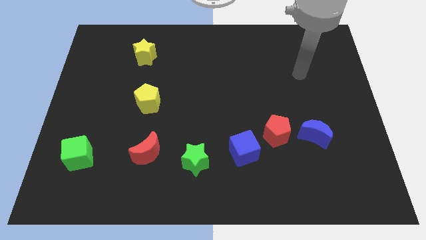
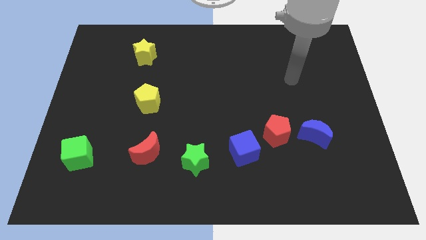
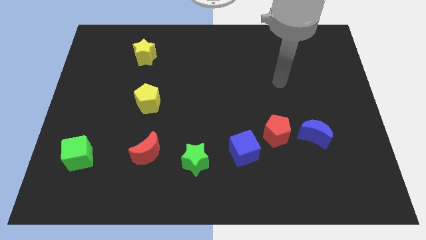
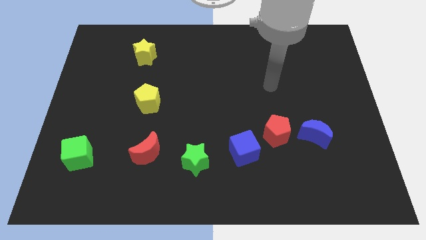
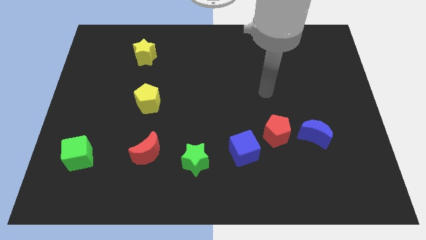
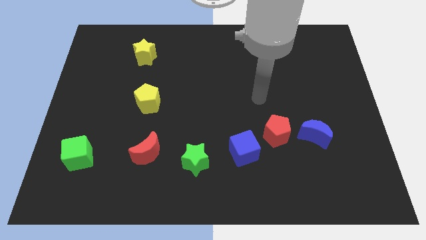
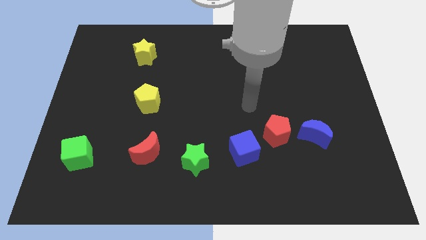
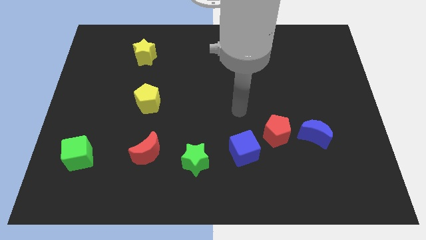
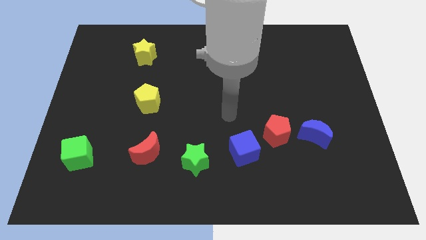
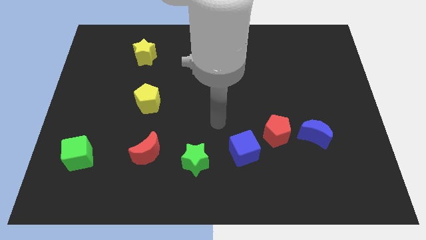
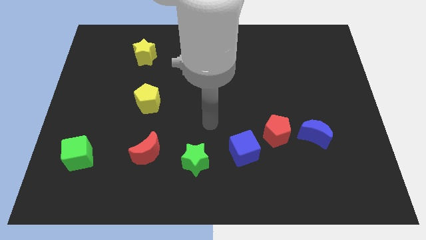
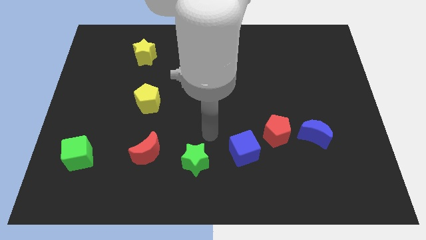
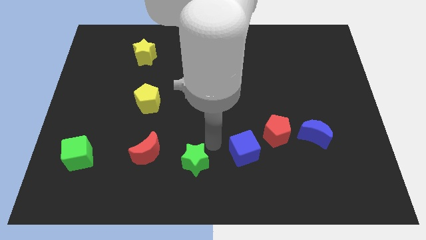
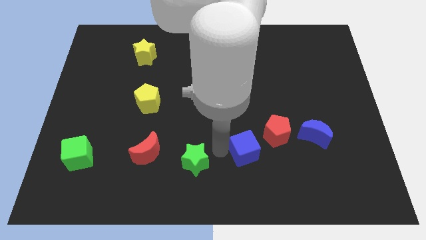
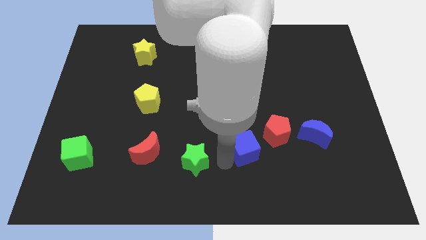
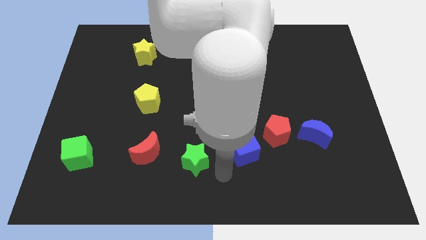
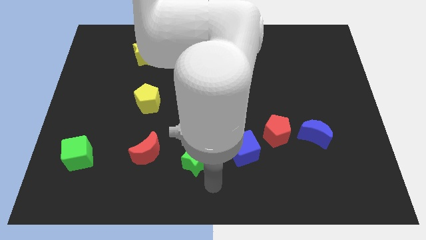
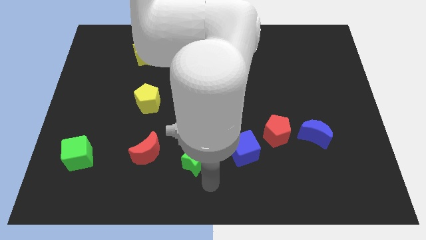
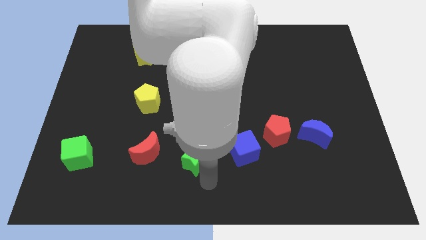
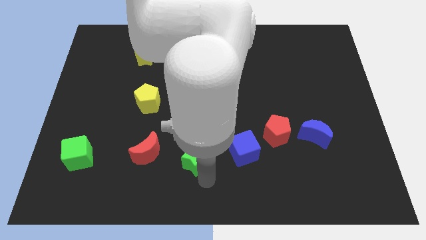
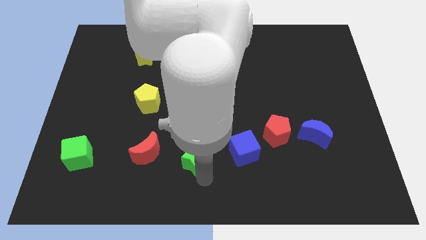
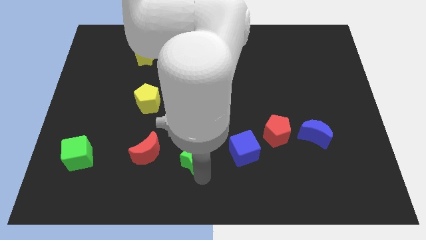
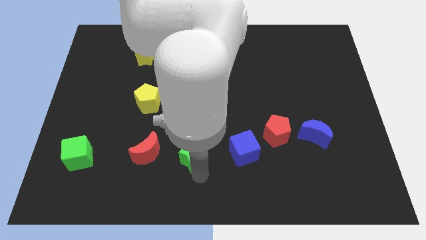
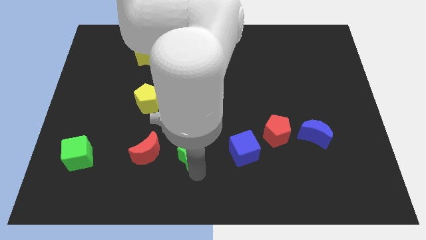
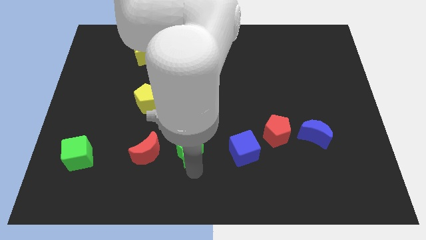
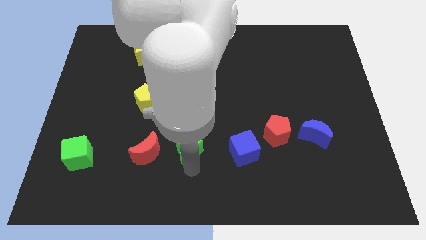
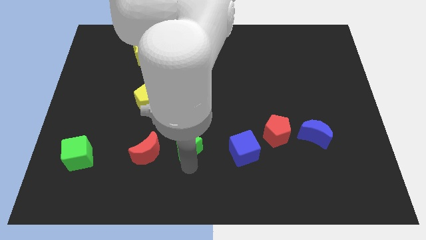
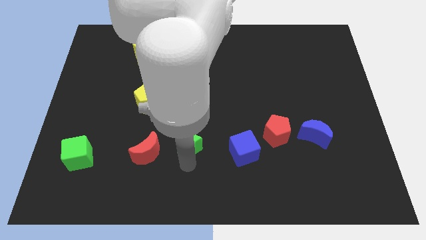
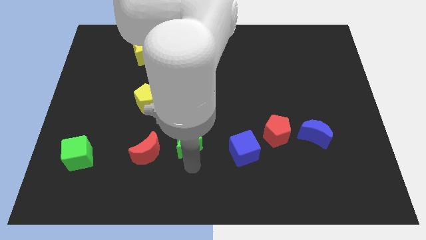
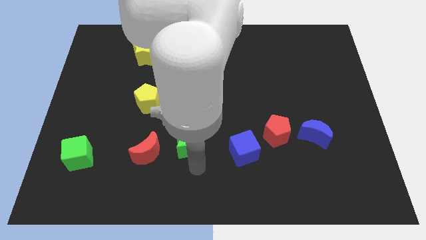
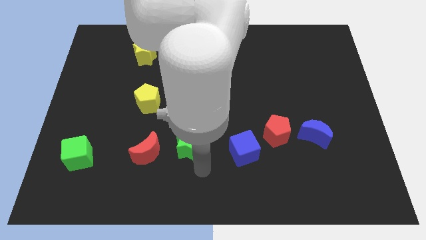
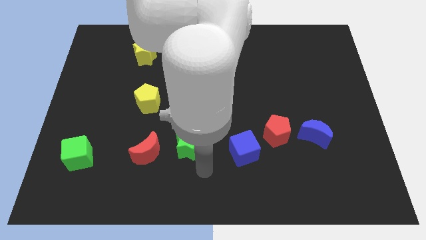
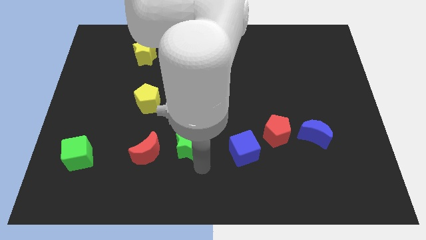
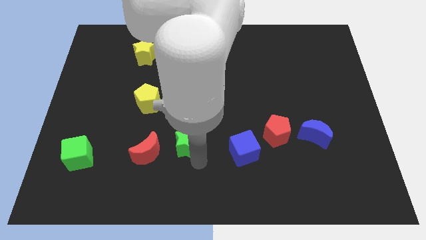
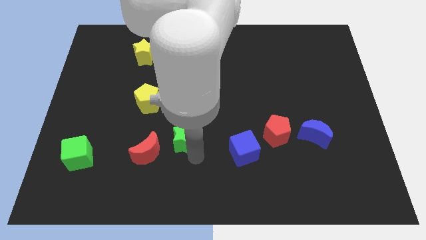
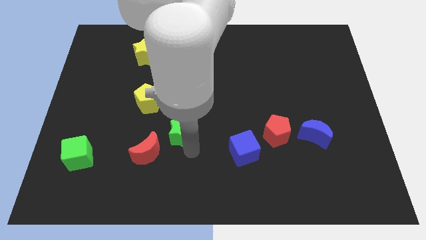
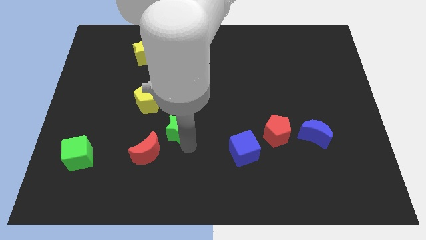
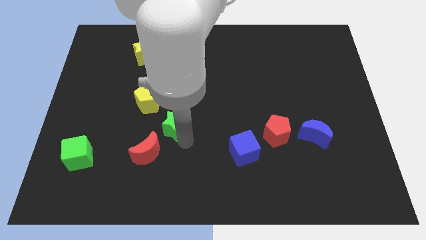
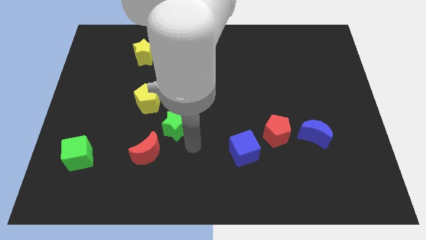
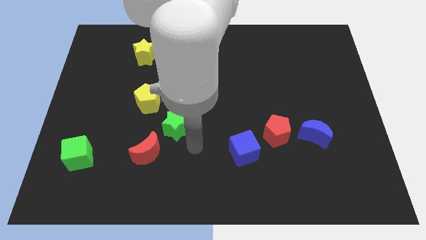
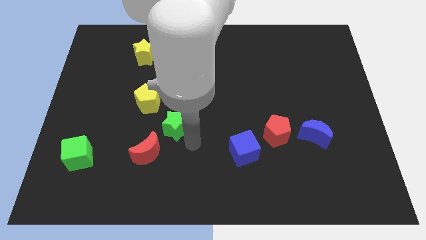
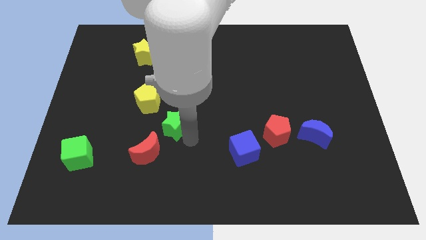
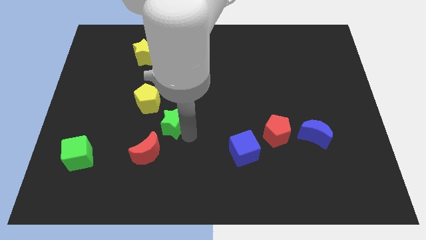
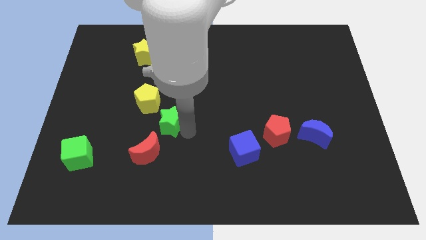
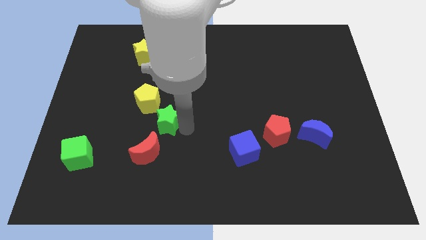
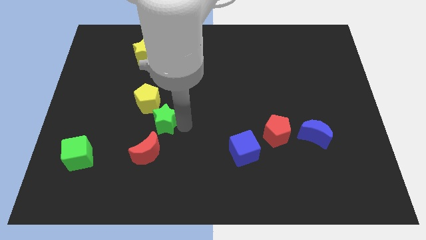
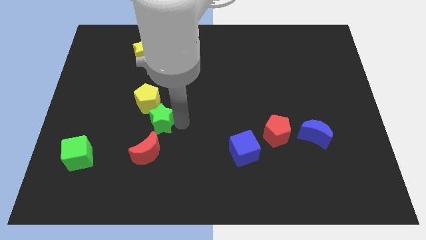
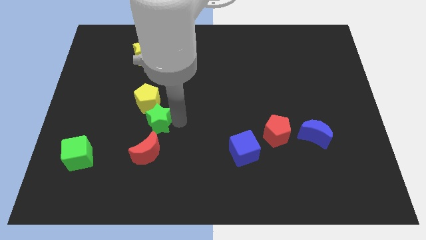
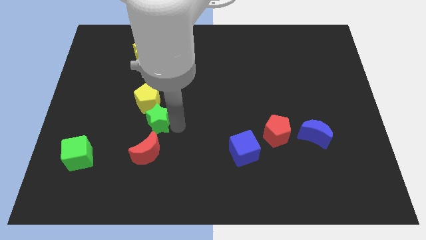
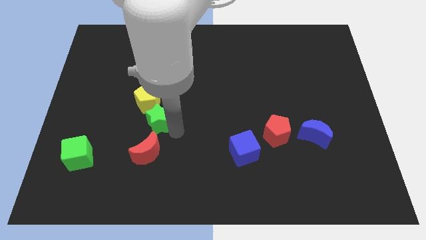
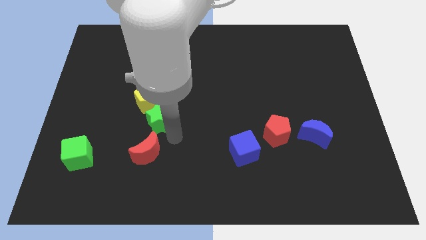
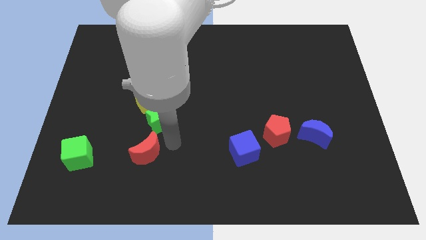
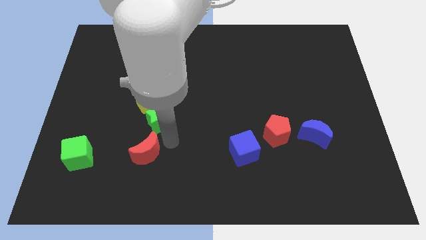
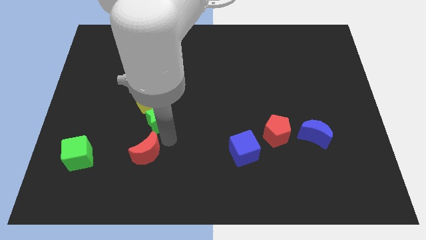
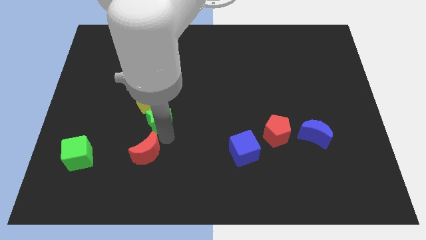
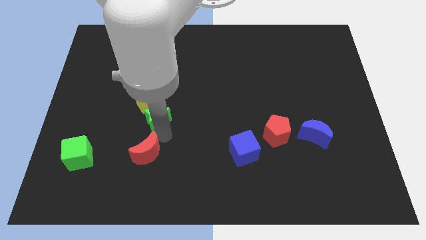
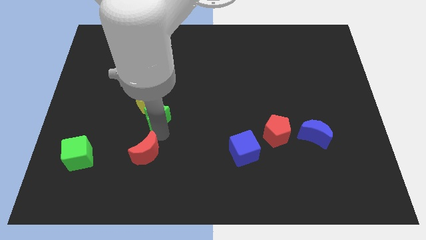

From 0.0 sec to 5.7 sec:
push the green star next to the yellow pentagon
